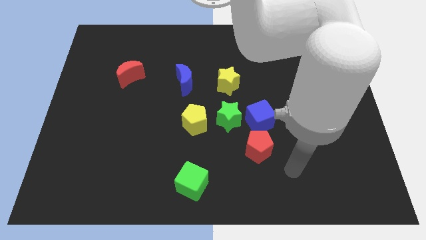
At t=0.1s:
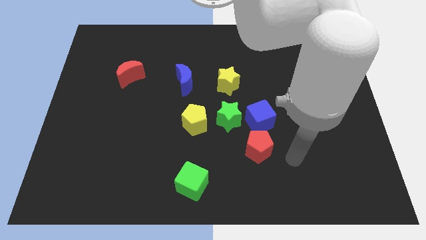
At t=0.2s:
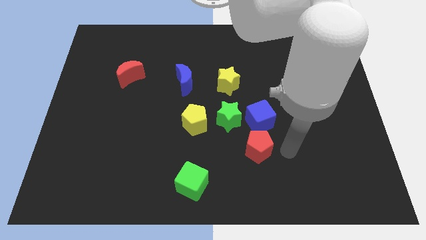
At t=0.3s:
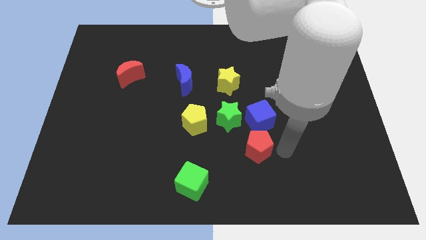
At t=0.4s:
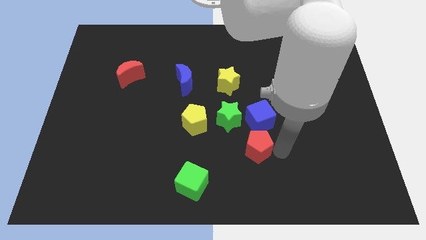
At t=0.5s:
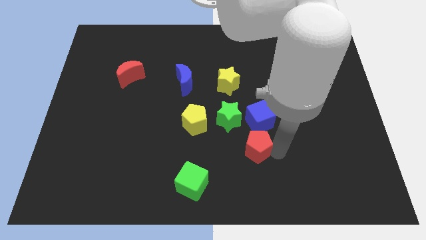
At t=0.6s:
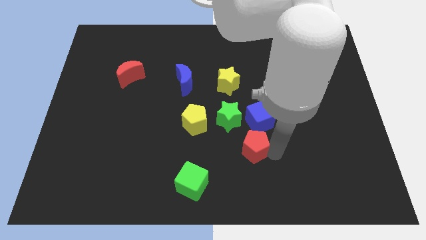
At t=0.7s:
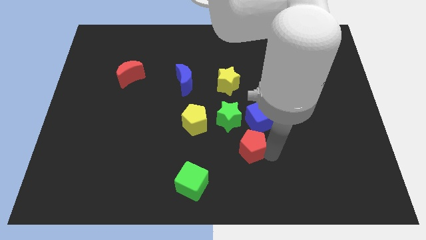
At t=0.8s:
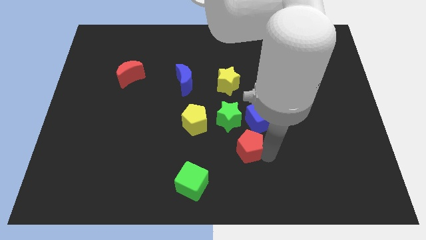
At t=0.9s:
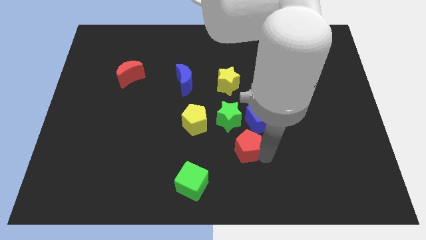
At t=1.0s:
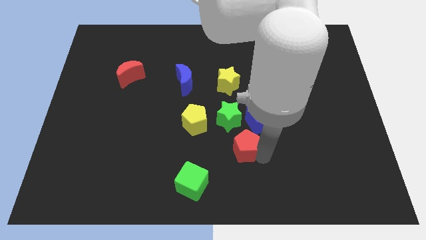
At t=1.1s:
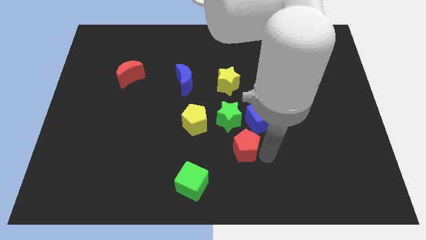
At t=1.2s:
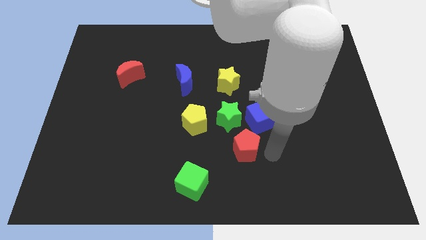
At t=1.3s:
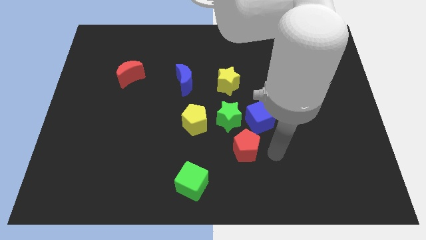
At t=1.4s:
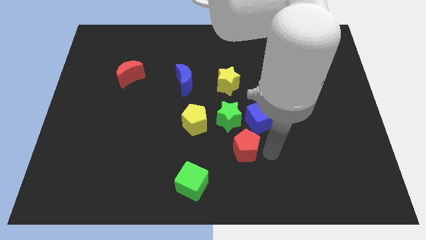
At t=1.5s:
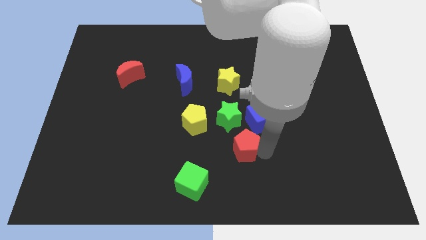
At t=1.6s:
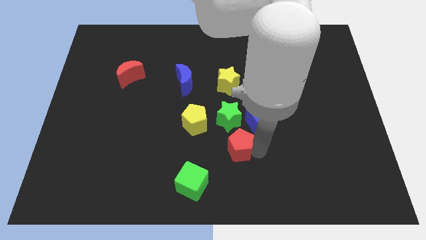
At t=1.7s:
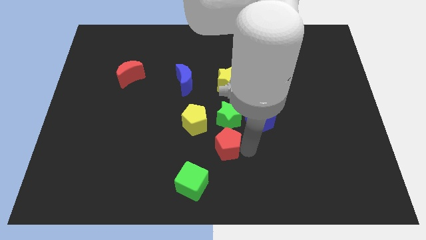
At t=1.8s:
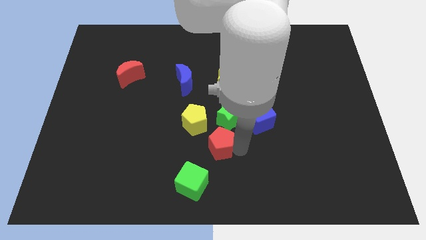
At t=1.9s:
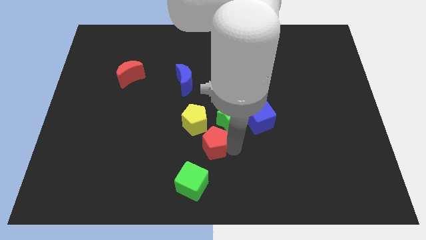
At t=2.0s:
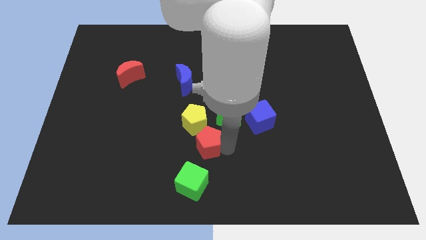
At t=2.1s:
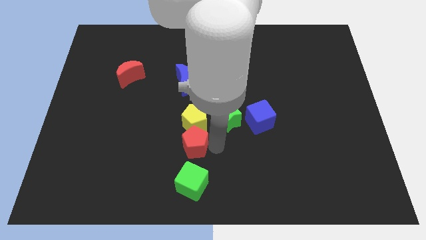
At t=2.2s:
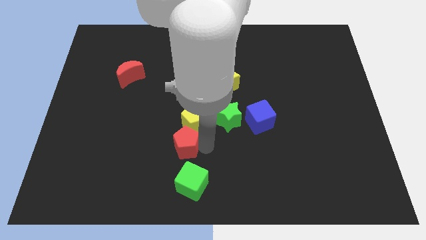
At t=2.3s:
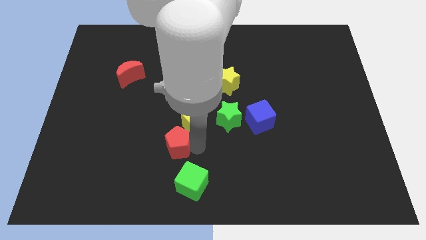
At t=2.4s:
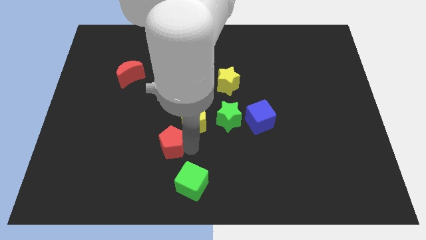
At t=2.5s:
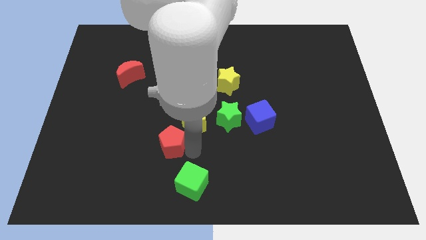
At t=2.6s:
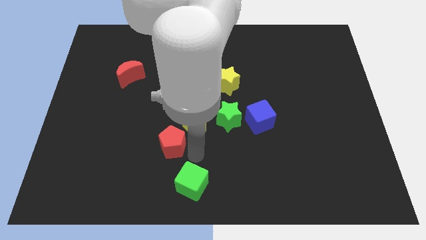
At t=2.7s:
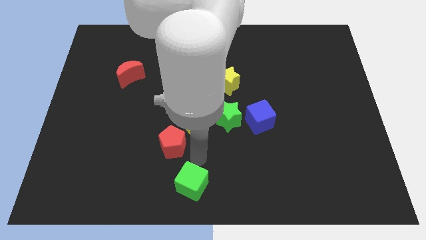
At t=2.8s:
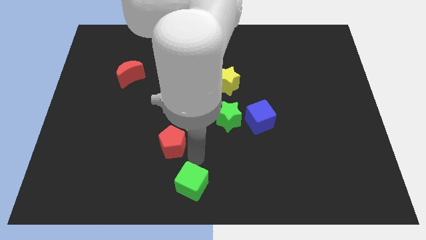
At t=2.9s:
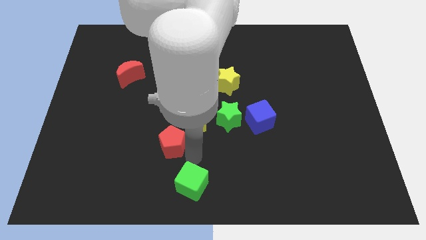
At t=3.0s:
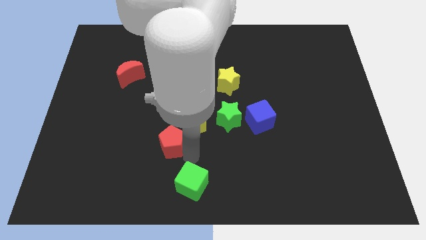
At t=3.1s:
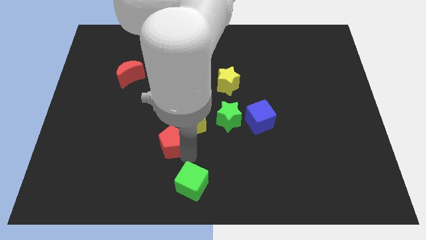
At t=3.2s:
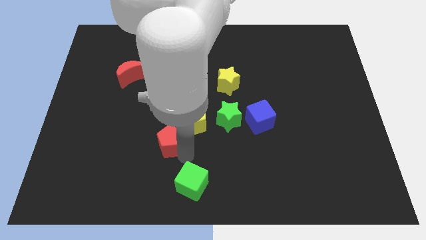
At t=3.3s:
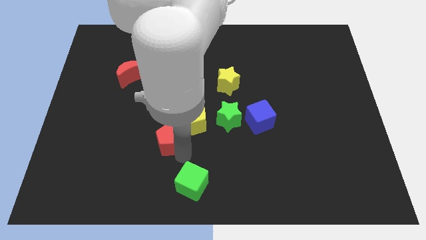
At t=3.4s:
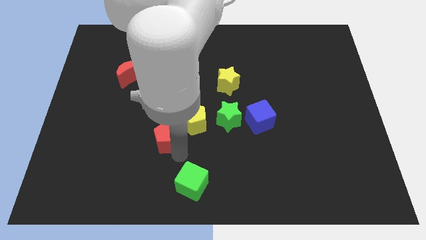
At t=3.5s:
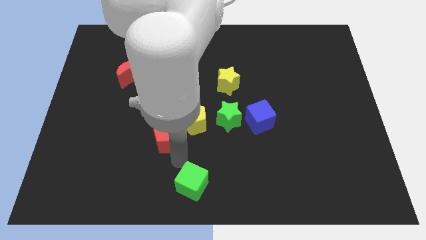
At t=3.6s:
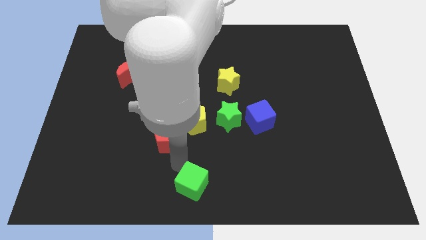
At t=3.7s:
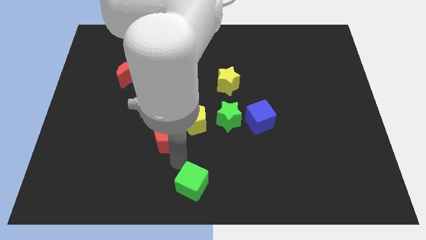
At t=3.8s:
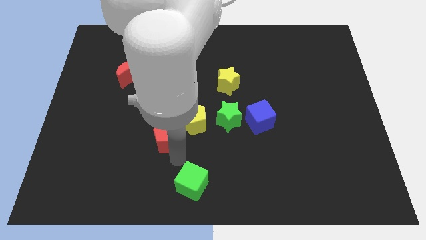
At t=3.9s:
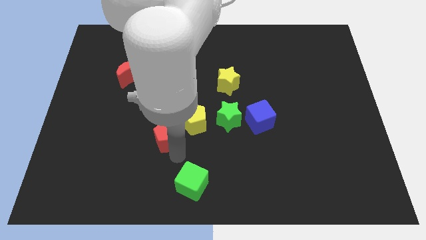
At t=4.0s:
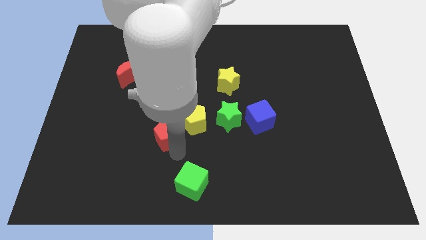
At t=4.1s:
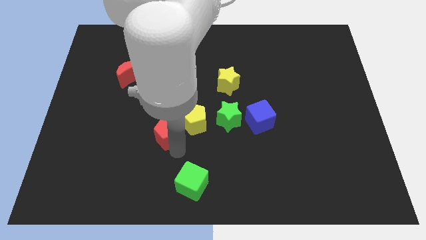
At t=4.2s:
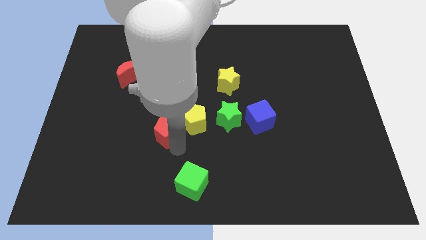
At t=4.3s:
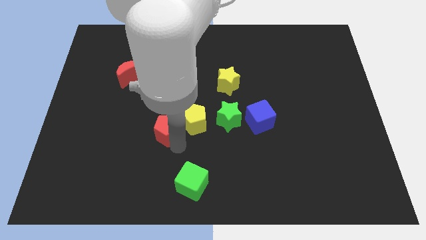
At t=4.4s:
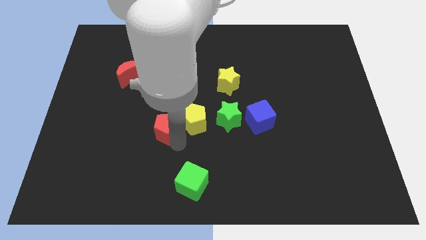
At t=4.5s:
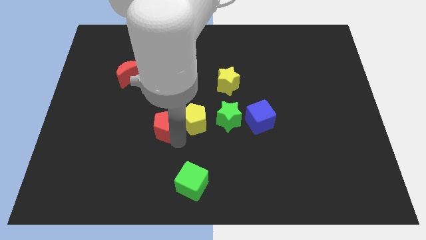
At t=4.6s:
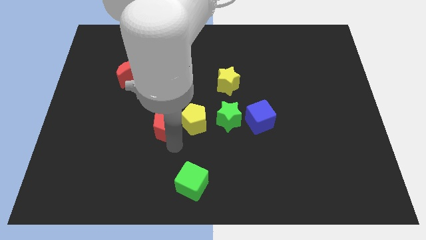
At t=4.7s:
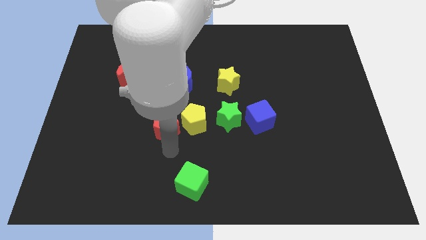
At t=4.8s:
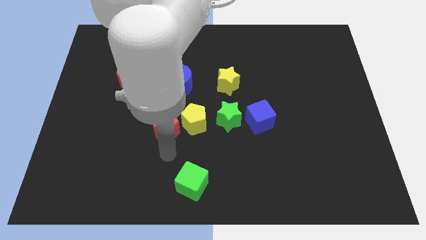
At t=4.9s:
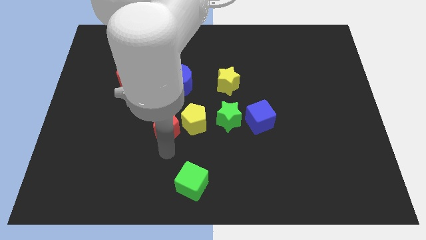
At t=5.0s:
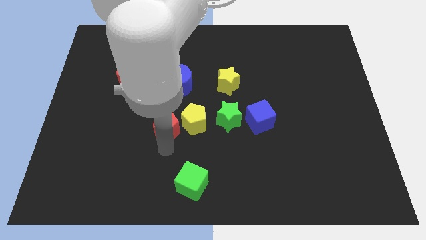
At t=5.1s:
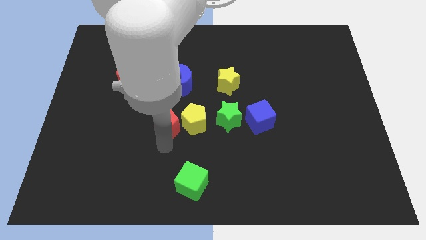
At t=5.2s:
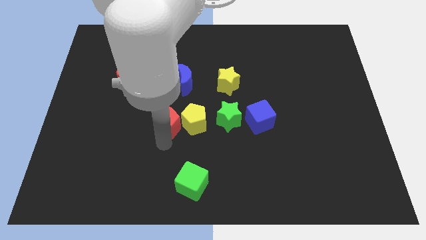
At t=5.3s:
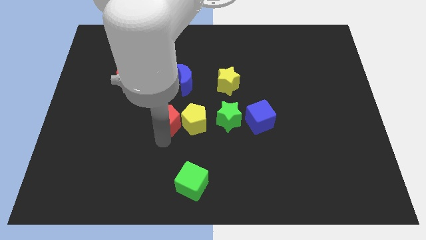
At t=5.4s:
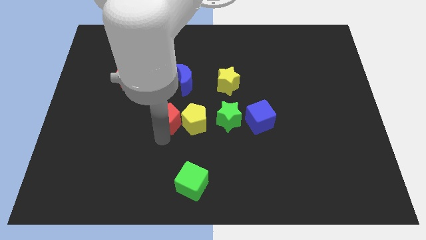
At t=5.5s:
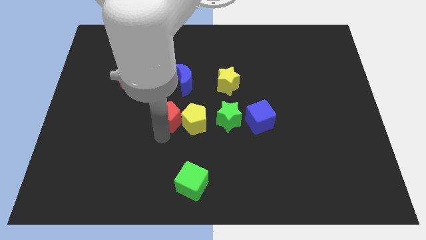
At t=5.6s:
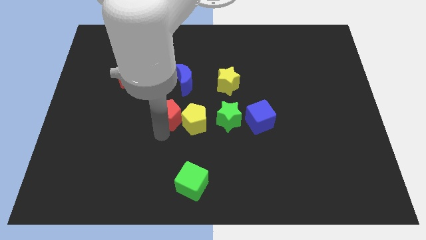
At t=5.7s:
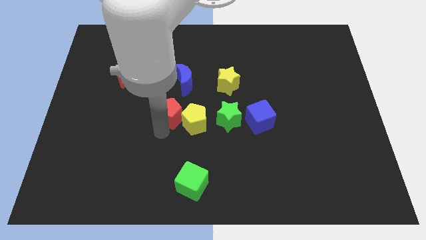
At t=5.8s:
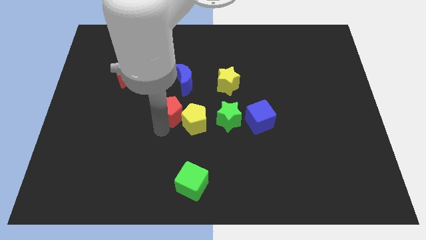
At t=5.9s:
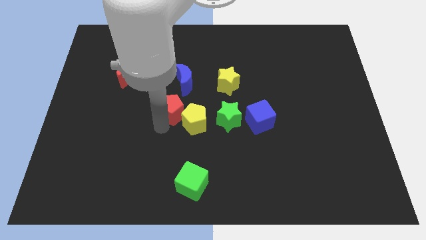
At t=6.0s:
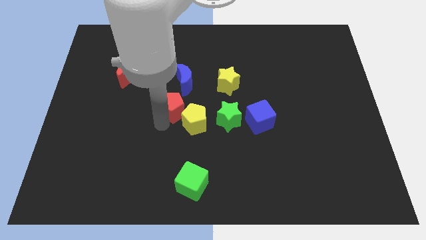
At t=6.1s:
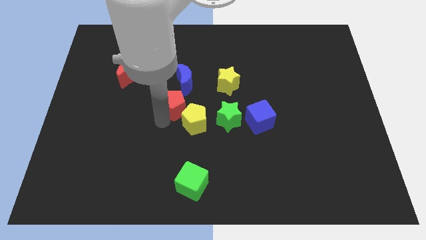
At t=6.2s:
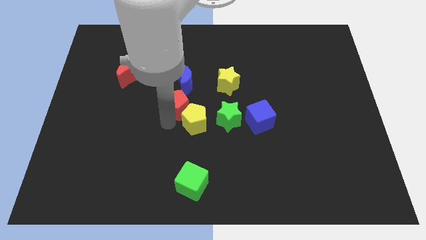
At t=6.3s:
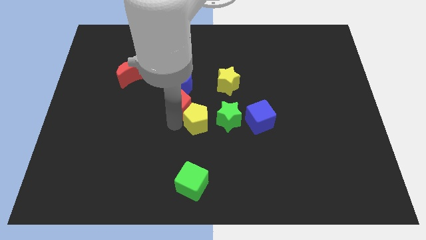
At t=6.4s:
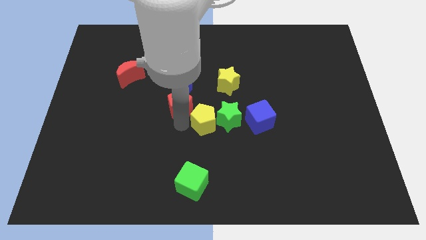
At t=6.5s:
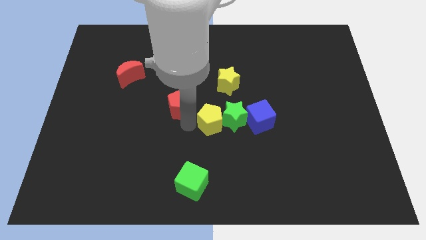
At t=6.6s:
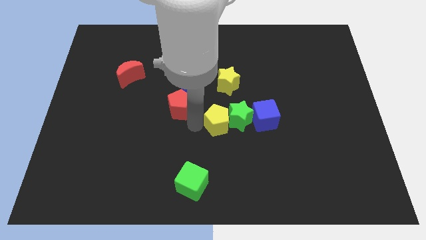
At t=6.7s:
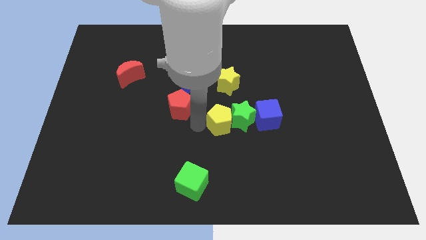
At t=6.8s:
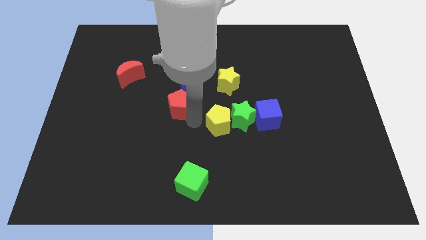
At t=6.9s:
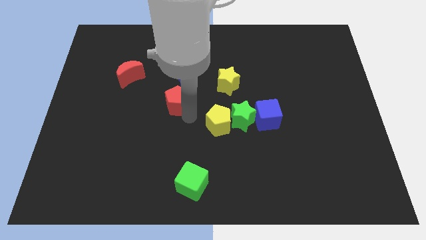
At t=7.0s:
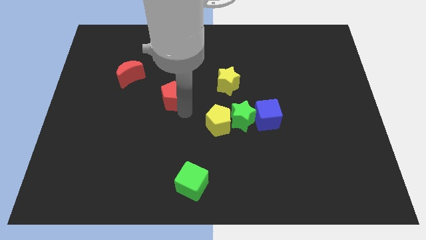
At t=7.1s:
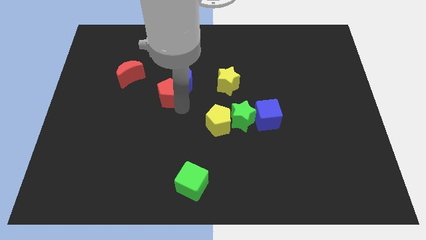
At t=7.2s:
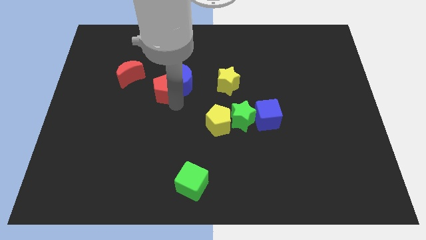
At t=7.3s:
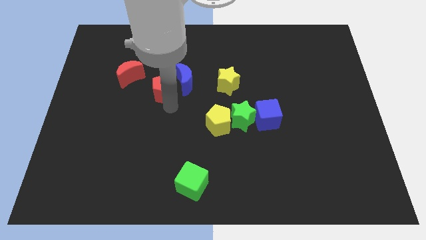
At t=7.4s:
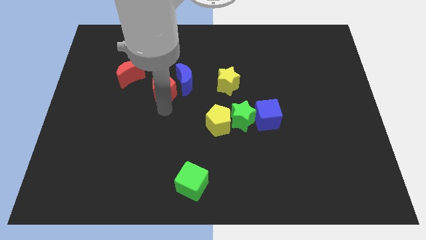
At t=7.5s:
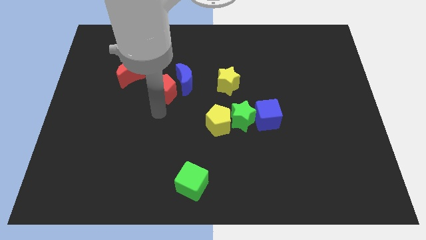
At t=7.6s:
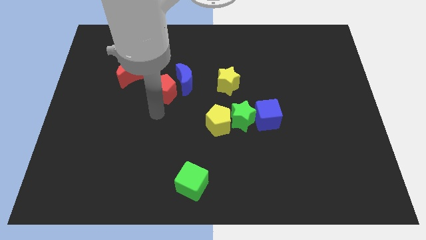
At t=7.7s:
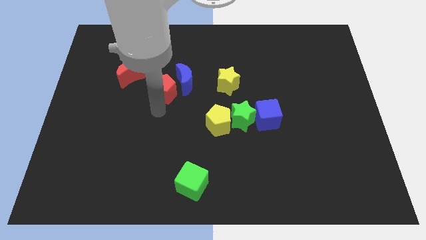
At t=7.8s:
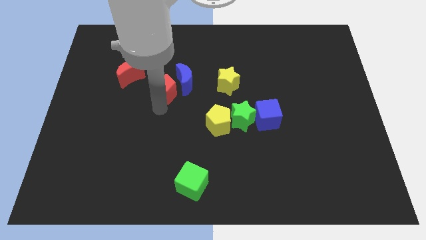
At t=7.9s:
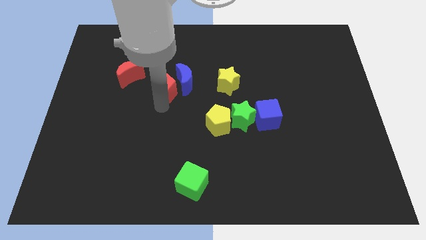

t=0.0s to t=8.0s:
move the red pentagon to the right side of the red moon
